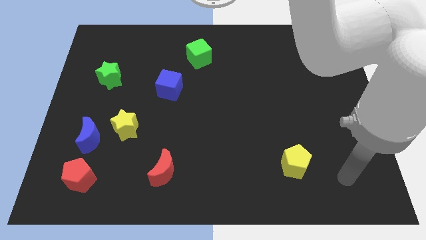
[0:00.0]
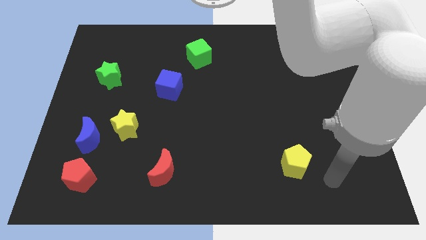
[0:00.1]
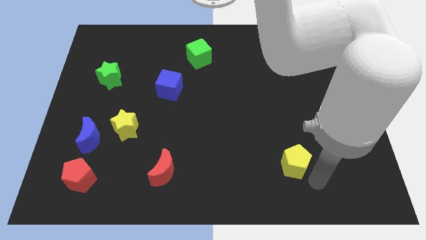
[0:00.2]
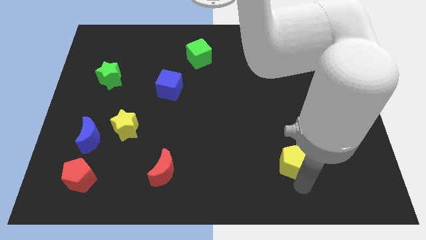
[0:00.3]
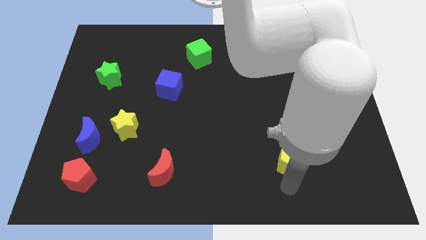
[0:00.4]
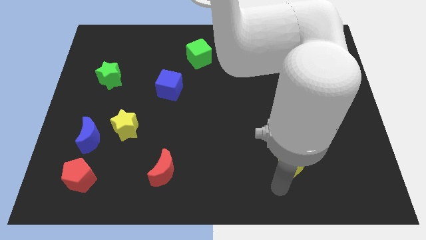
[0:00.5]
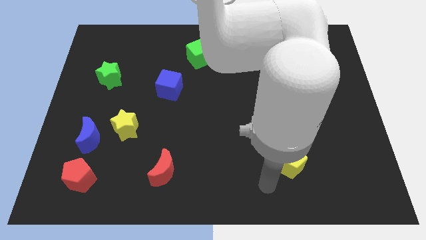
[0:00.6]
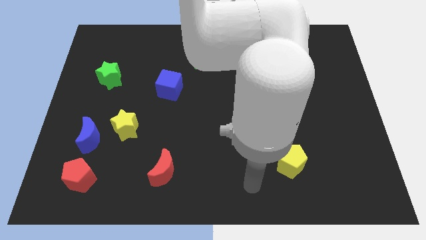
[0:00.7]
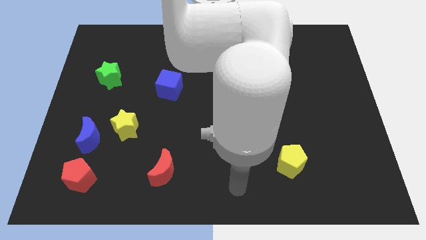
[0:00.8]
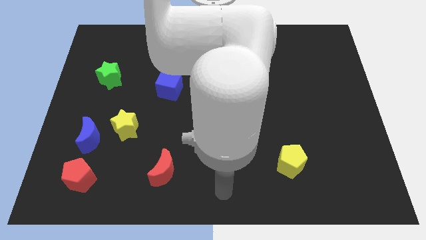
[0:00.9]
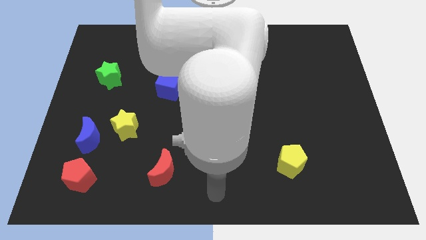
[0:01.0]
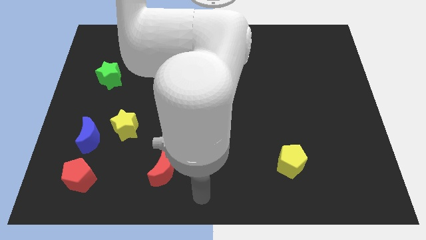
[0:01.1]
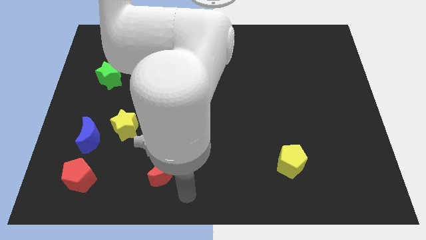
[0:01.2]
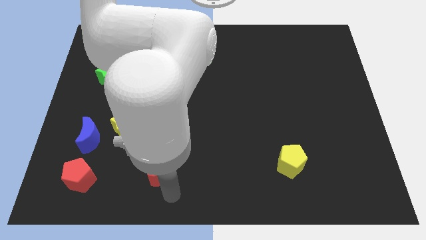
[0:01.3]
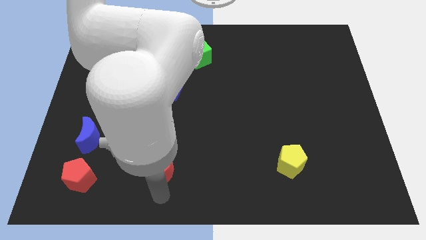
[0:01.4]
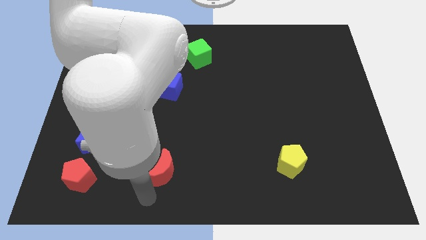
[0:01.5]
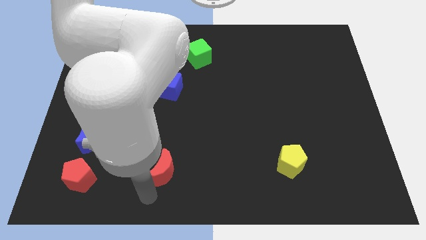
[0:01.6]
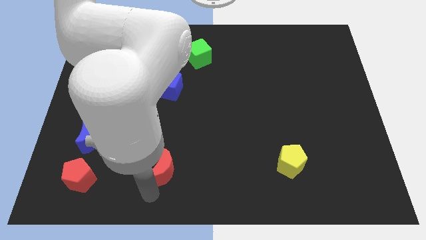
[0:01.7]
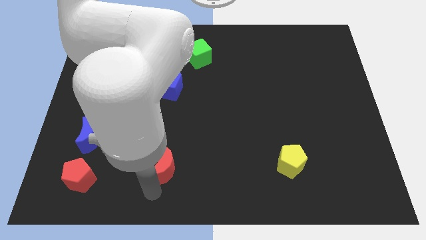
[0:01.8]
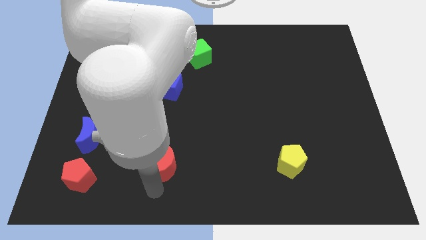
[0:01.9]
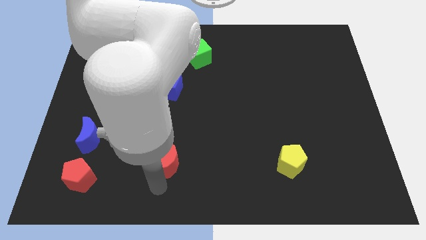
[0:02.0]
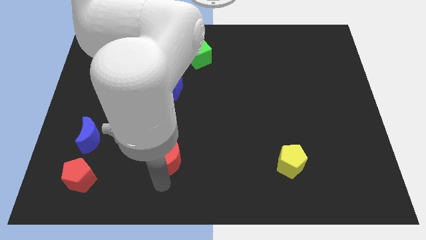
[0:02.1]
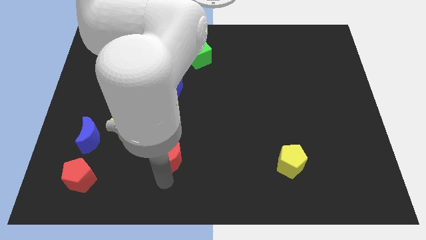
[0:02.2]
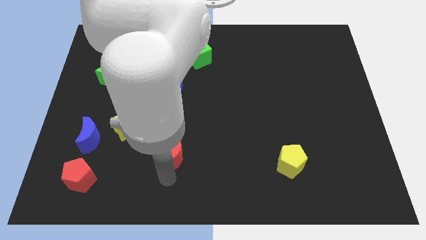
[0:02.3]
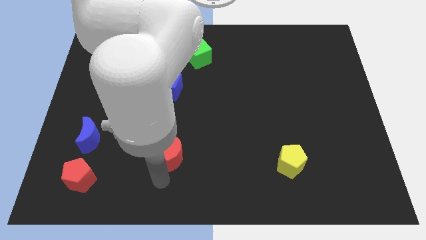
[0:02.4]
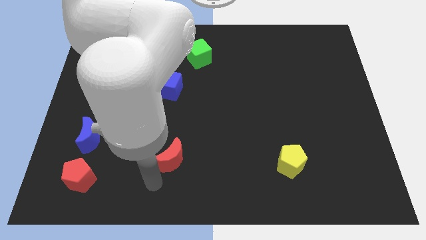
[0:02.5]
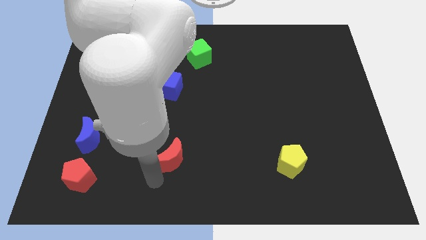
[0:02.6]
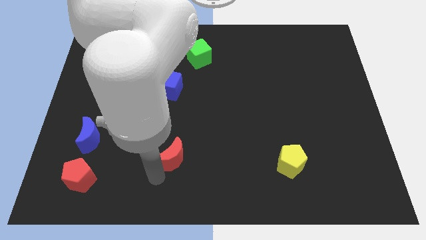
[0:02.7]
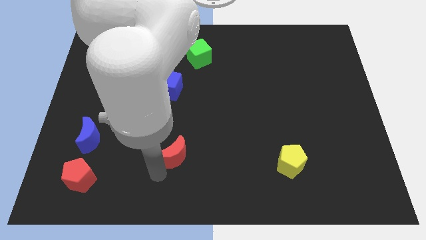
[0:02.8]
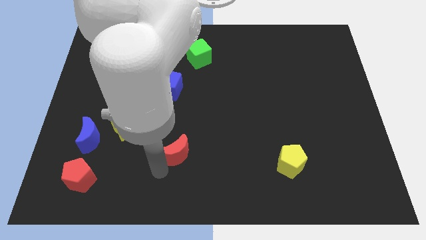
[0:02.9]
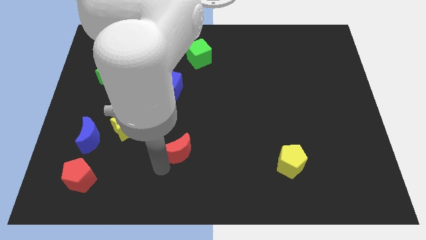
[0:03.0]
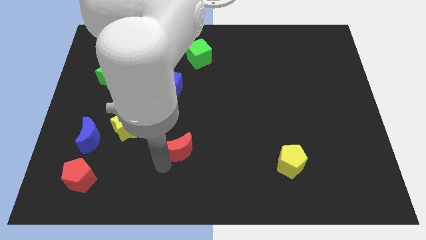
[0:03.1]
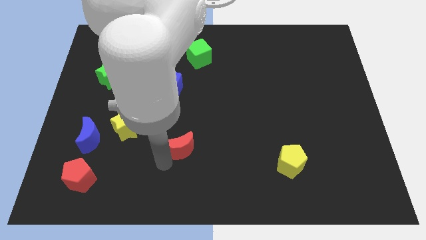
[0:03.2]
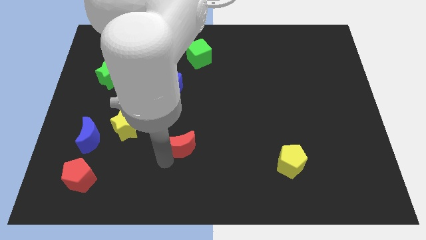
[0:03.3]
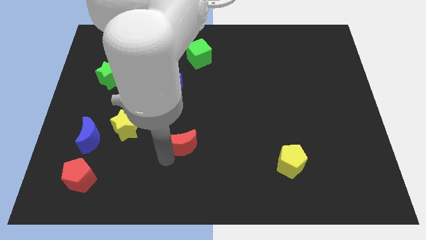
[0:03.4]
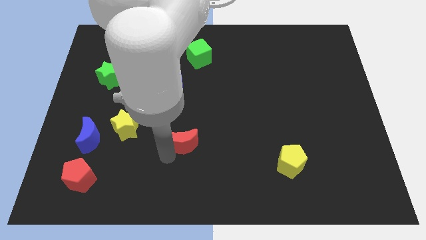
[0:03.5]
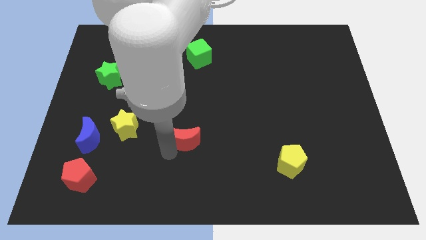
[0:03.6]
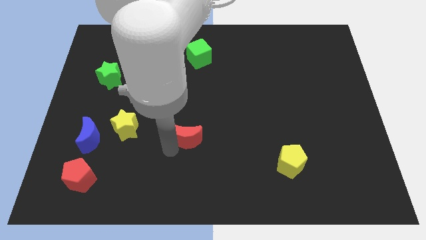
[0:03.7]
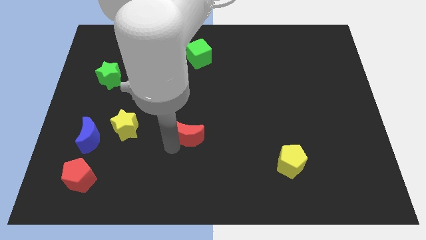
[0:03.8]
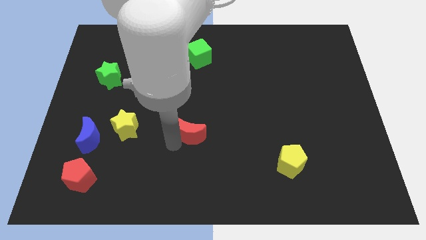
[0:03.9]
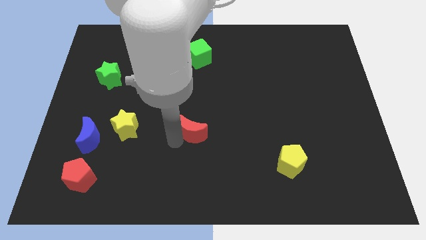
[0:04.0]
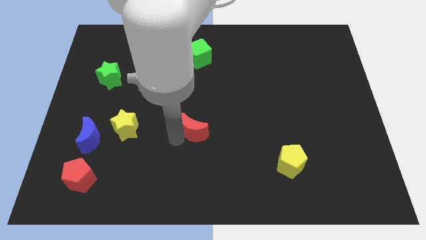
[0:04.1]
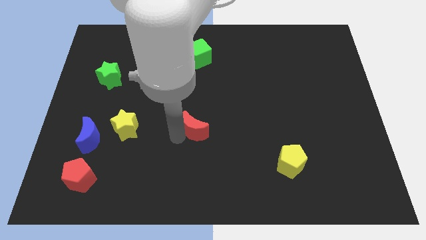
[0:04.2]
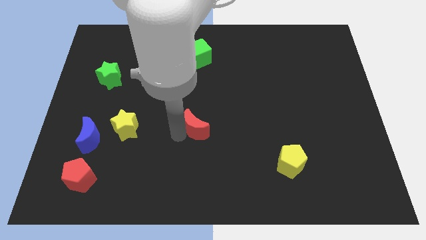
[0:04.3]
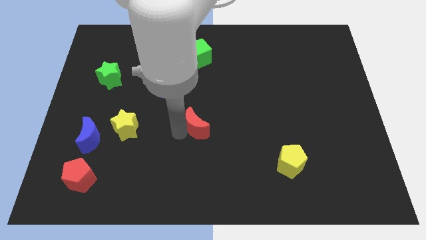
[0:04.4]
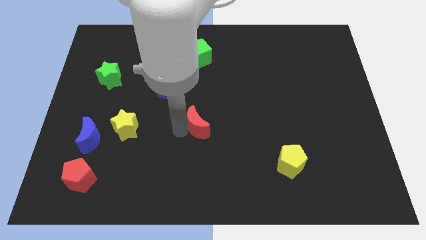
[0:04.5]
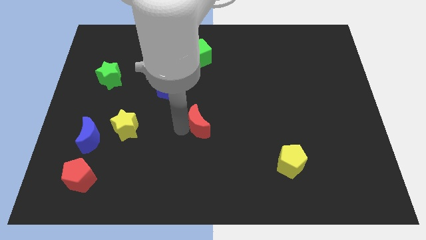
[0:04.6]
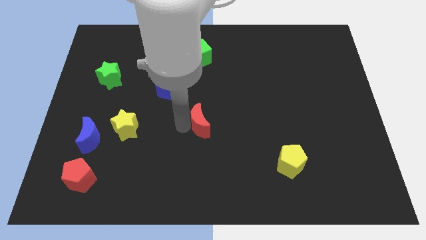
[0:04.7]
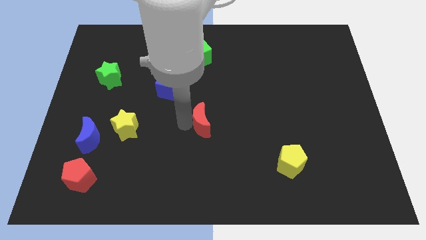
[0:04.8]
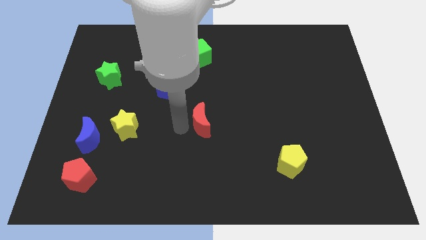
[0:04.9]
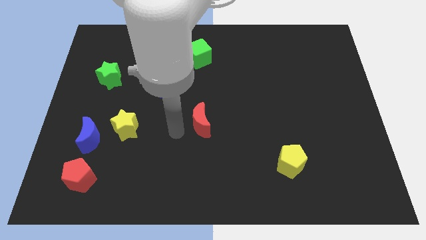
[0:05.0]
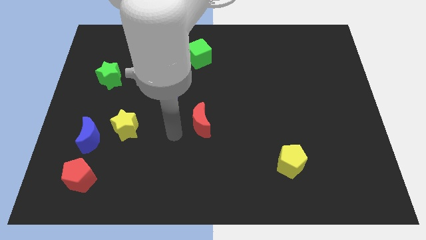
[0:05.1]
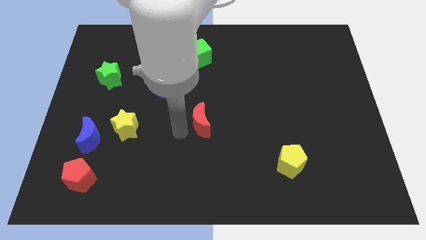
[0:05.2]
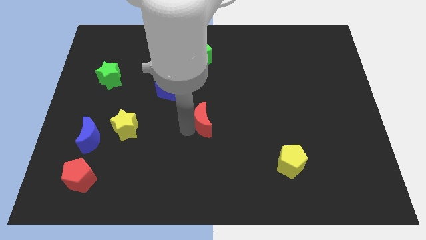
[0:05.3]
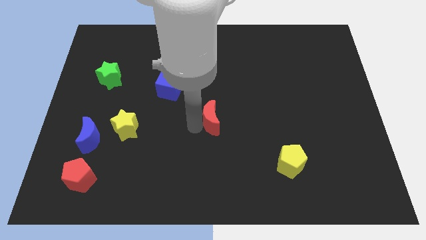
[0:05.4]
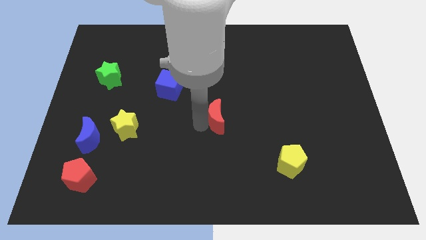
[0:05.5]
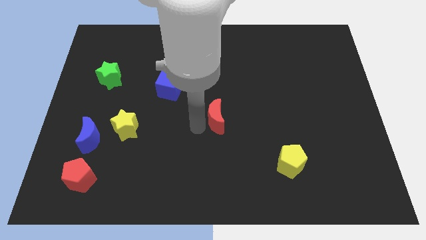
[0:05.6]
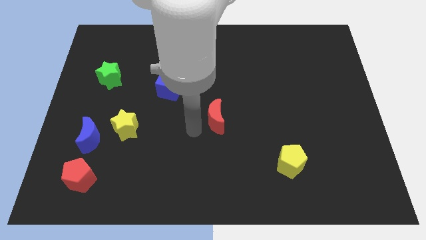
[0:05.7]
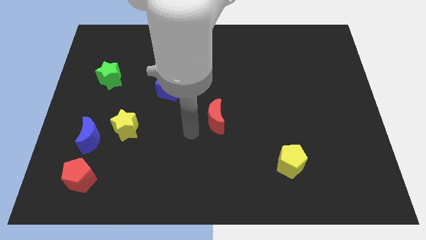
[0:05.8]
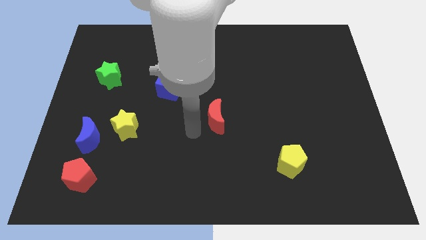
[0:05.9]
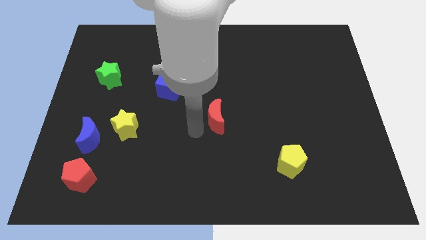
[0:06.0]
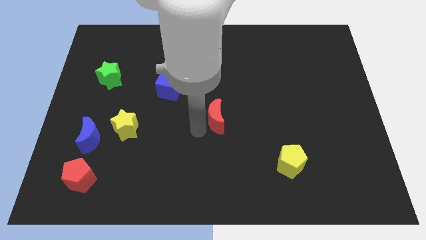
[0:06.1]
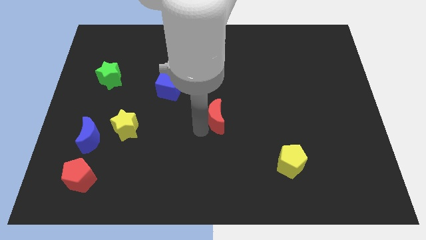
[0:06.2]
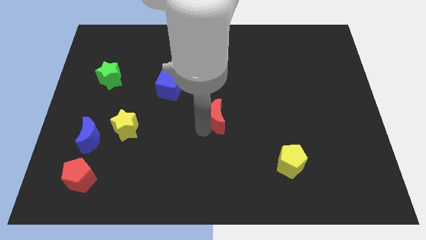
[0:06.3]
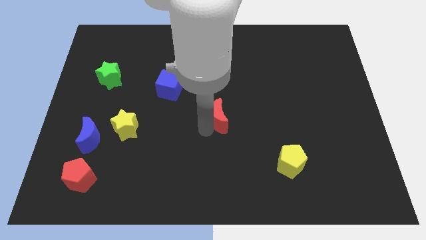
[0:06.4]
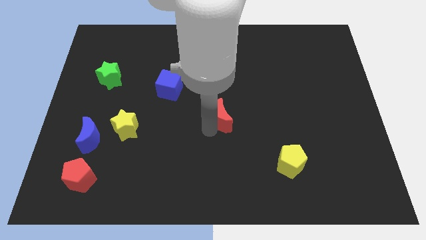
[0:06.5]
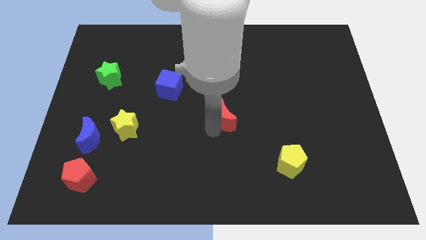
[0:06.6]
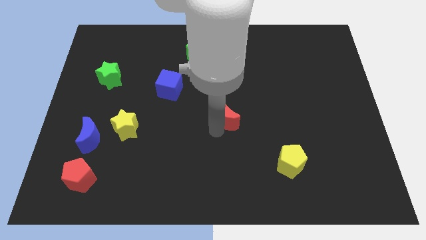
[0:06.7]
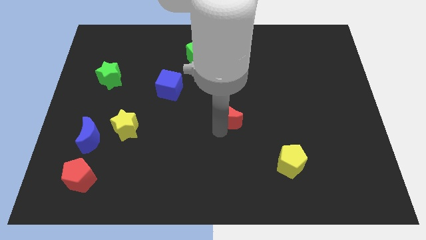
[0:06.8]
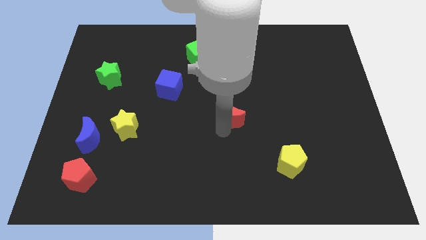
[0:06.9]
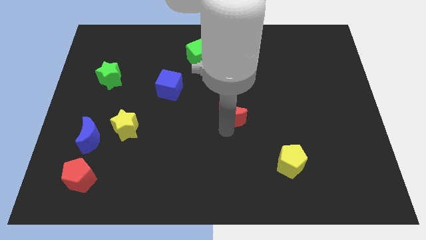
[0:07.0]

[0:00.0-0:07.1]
push the red moon upwards and to the right

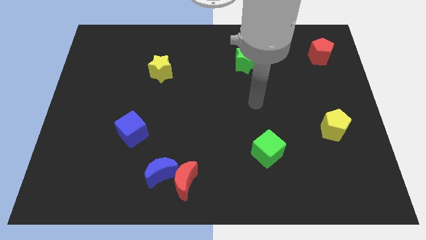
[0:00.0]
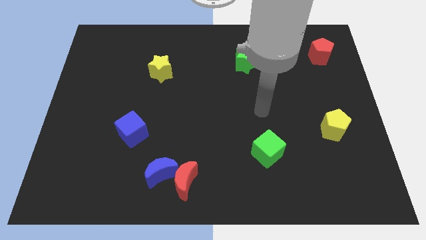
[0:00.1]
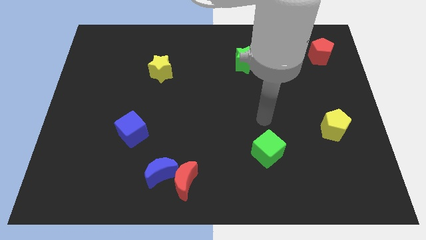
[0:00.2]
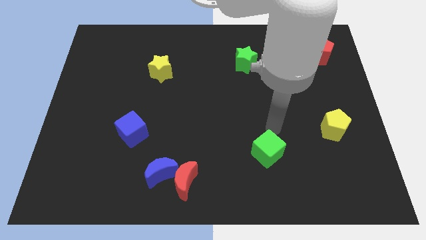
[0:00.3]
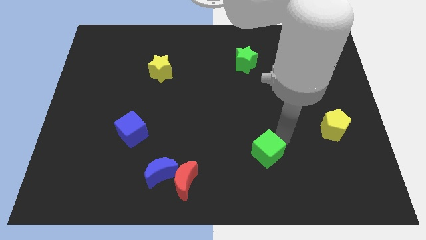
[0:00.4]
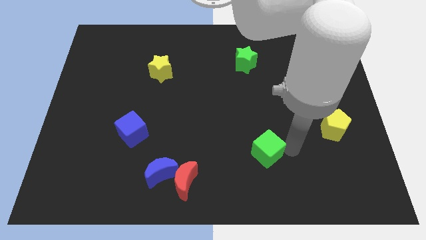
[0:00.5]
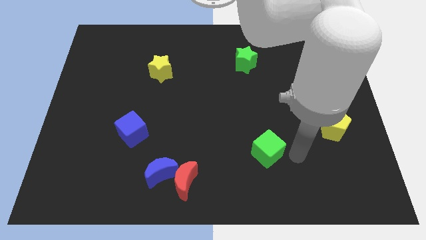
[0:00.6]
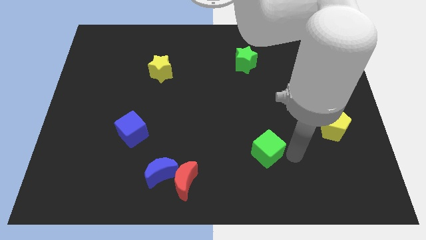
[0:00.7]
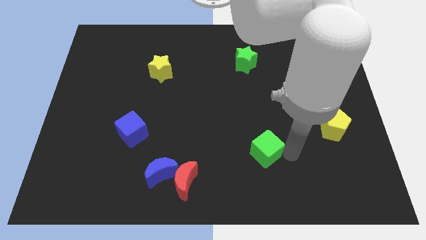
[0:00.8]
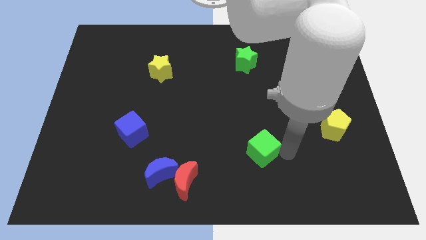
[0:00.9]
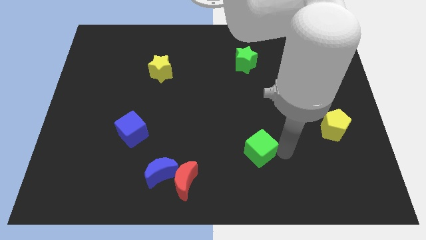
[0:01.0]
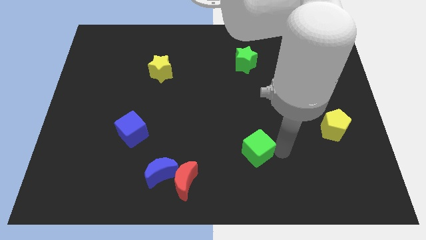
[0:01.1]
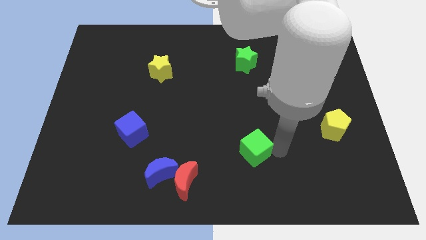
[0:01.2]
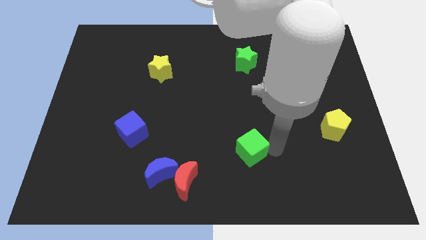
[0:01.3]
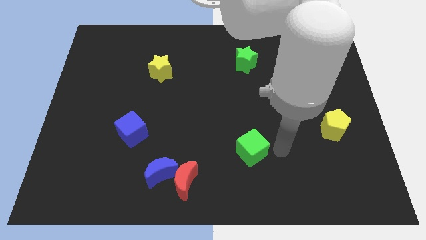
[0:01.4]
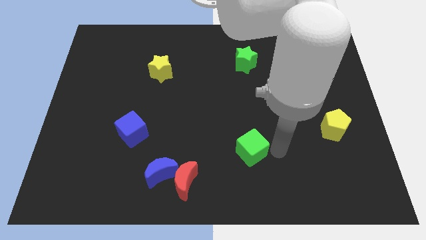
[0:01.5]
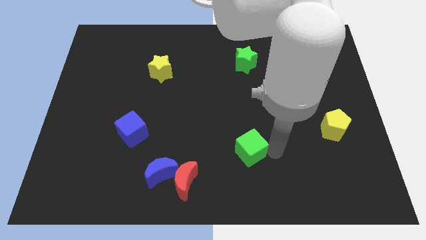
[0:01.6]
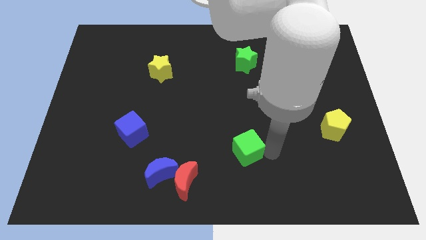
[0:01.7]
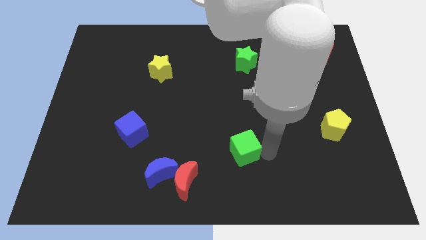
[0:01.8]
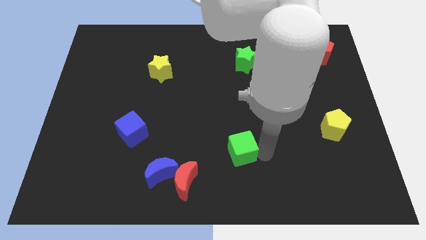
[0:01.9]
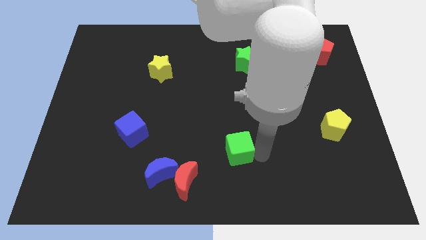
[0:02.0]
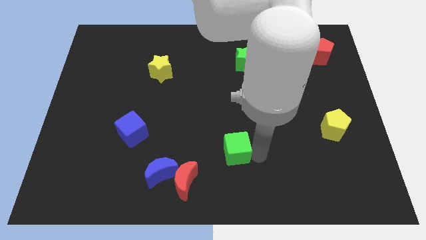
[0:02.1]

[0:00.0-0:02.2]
push the green cube somewhat left
